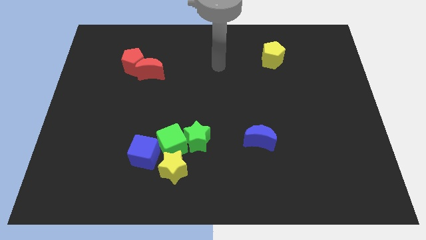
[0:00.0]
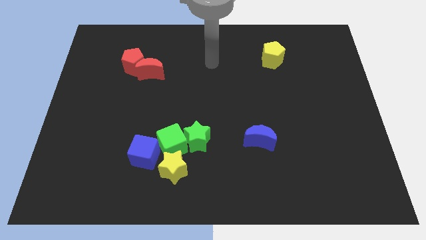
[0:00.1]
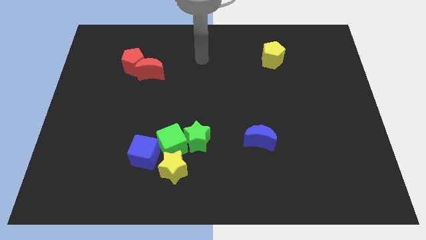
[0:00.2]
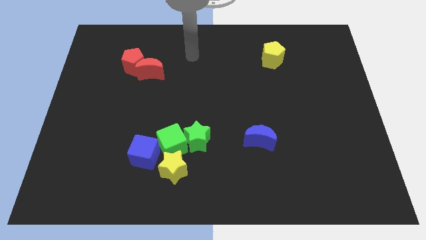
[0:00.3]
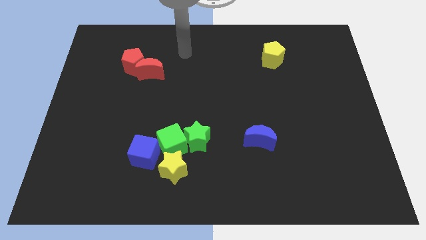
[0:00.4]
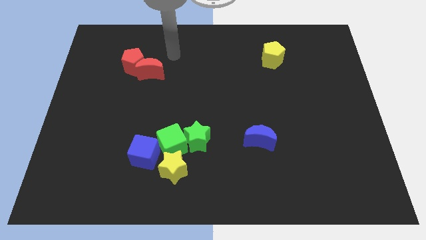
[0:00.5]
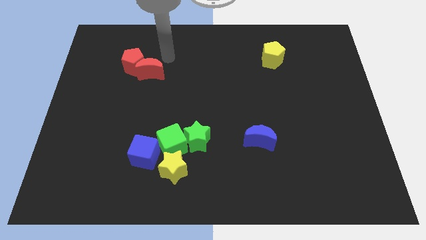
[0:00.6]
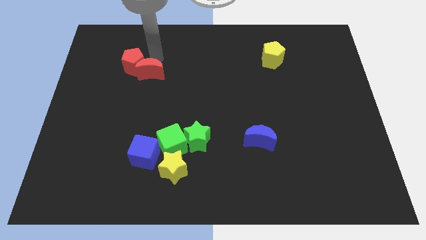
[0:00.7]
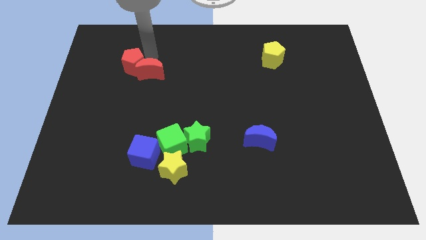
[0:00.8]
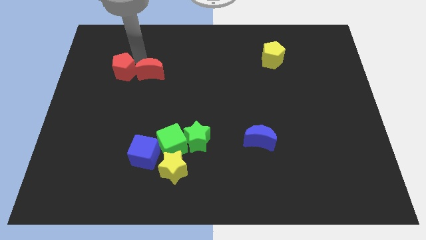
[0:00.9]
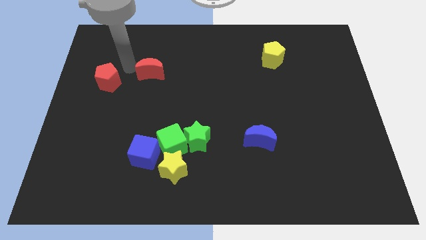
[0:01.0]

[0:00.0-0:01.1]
separate the red moon from the red pentagon

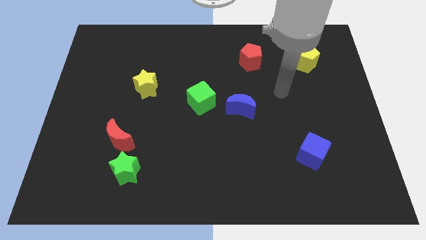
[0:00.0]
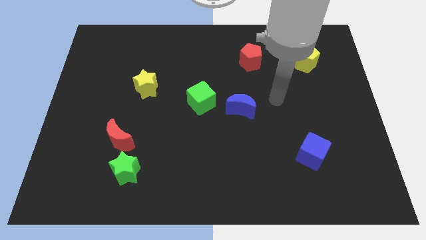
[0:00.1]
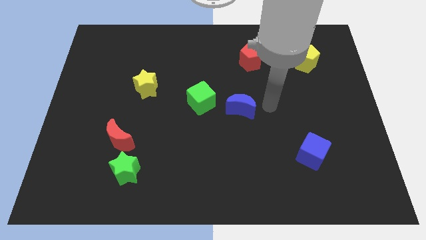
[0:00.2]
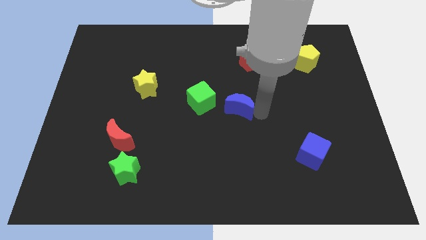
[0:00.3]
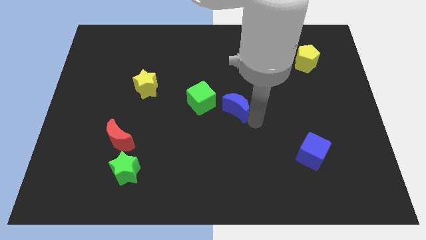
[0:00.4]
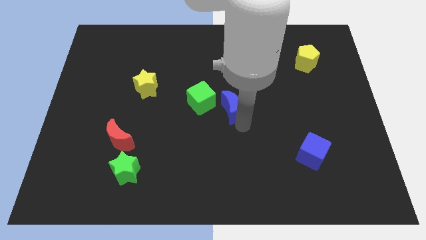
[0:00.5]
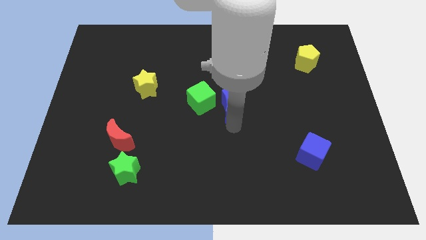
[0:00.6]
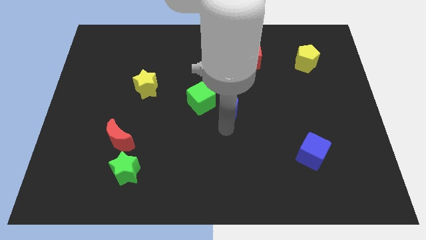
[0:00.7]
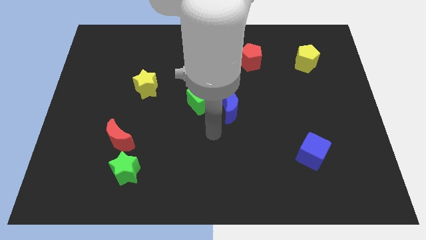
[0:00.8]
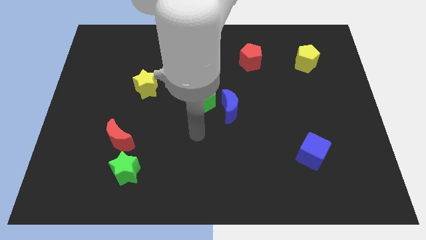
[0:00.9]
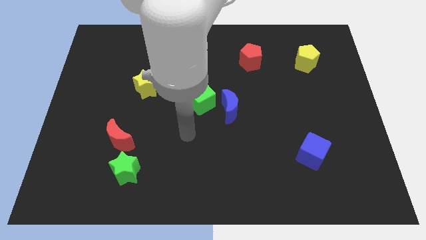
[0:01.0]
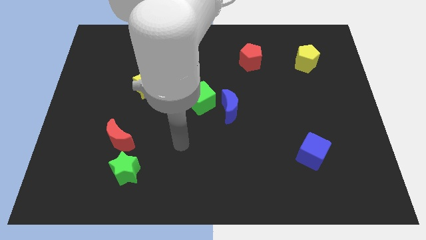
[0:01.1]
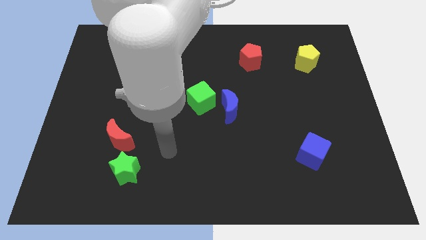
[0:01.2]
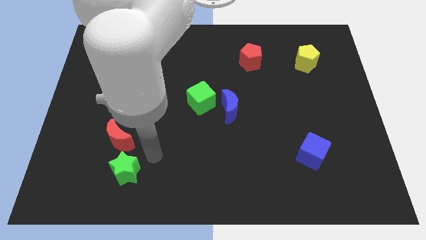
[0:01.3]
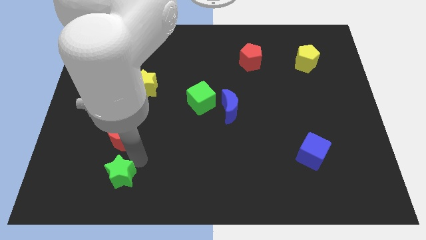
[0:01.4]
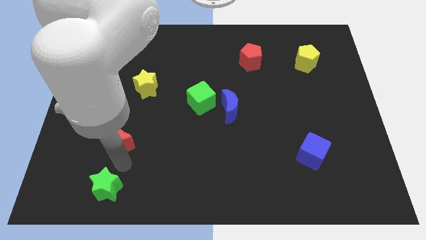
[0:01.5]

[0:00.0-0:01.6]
pull the red moon apart from the green star

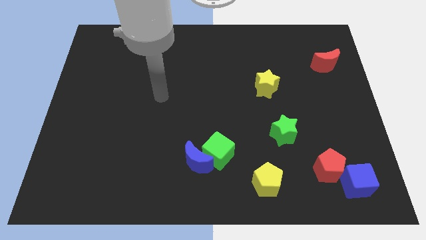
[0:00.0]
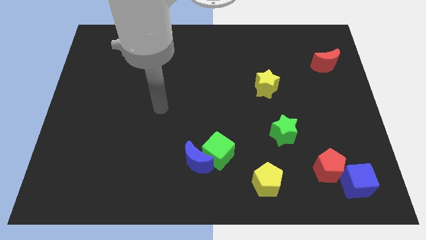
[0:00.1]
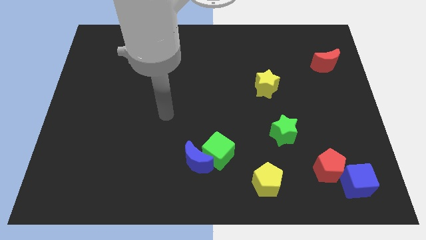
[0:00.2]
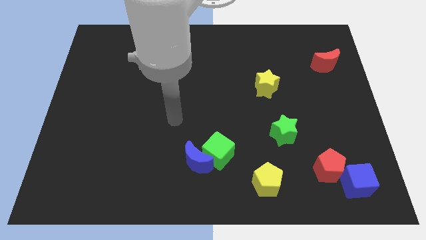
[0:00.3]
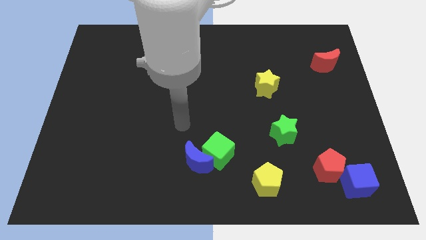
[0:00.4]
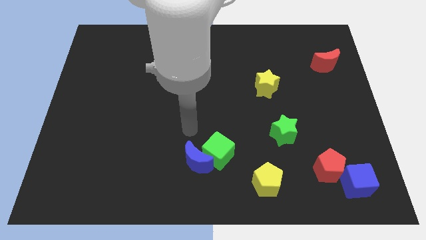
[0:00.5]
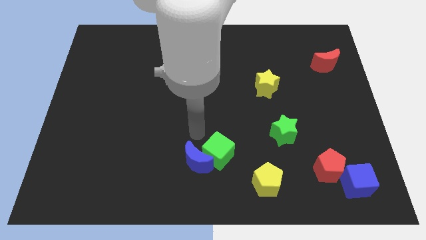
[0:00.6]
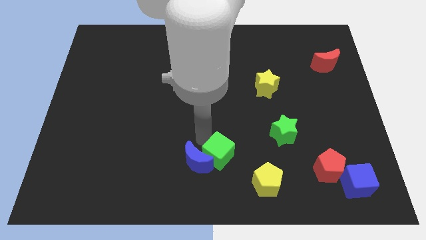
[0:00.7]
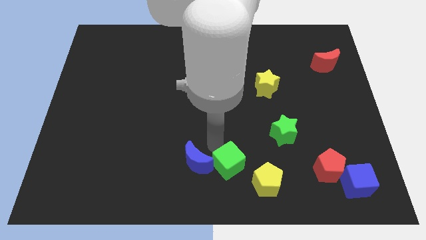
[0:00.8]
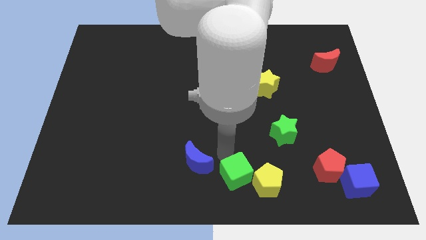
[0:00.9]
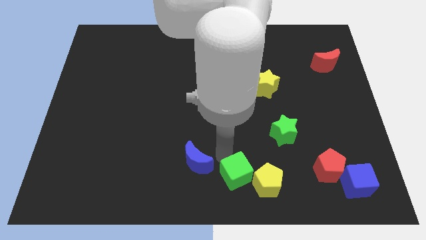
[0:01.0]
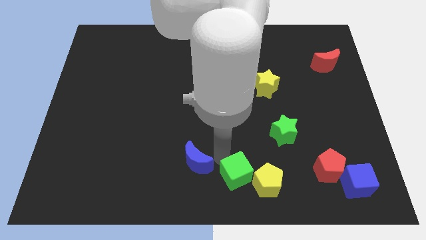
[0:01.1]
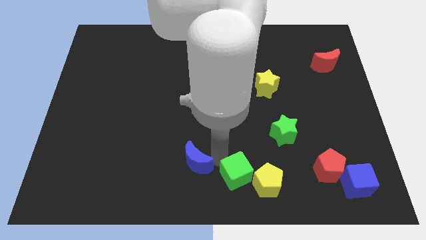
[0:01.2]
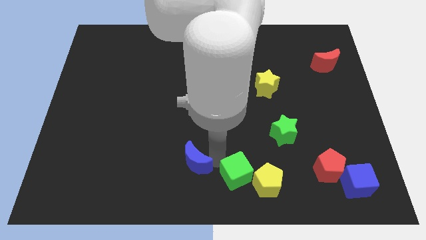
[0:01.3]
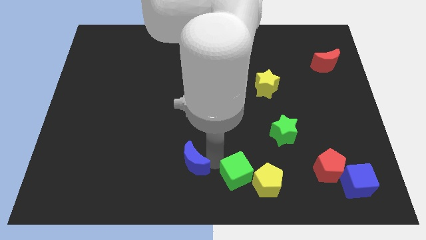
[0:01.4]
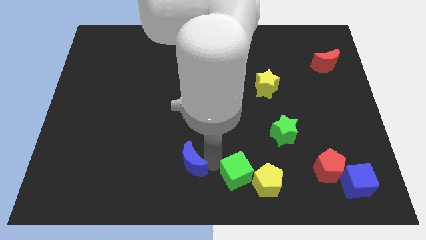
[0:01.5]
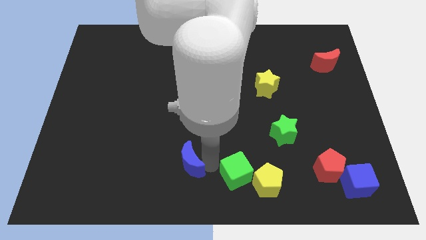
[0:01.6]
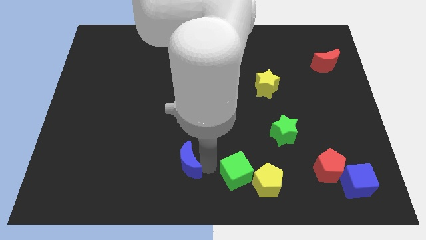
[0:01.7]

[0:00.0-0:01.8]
pull the blue moon apart from the green cube

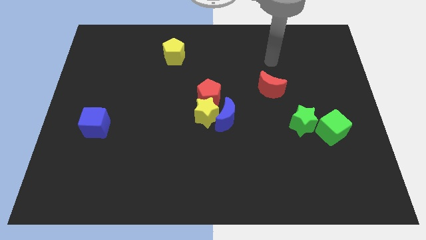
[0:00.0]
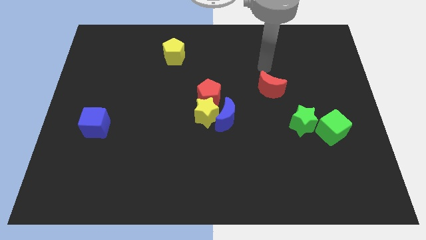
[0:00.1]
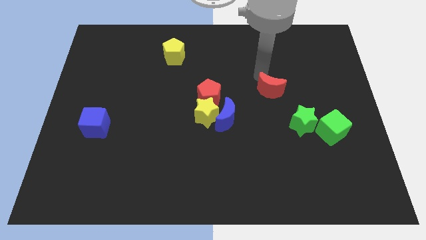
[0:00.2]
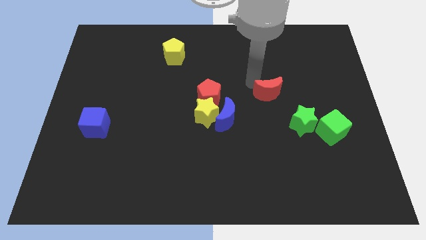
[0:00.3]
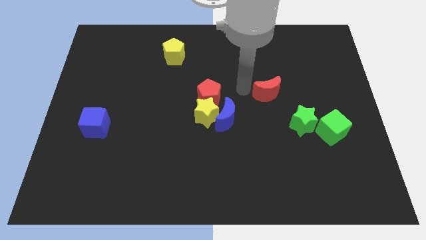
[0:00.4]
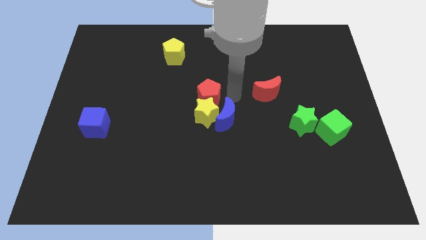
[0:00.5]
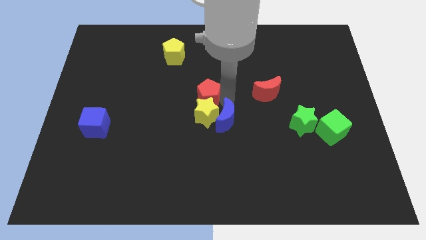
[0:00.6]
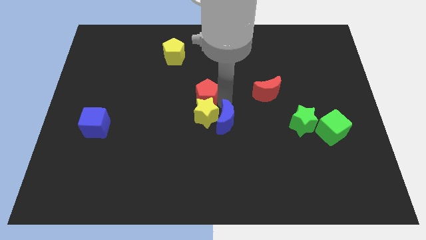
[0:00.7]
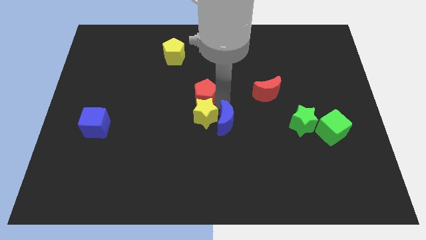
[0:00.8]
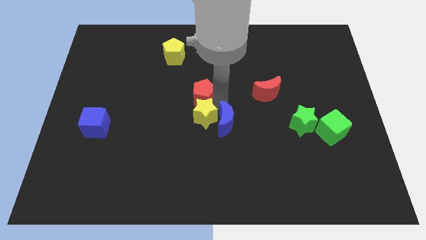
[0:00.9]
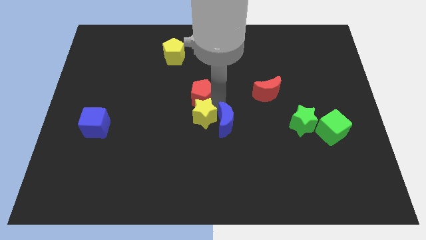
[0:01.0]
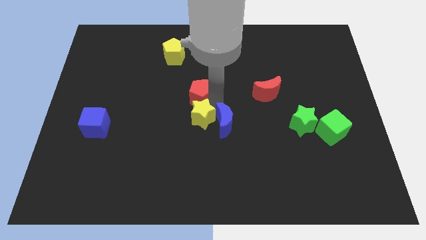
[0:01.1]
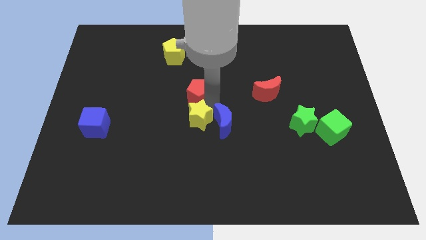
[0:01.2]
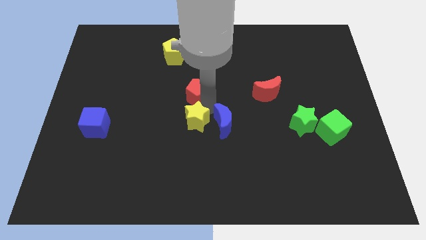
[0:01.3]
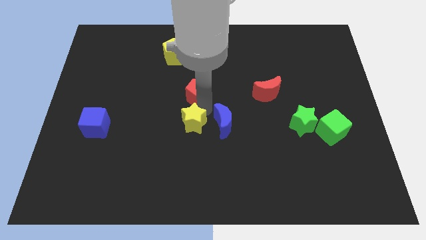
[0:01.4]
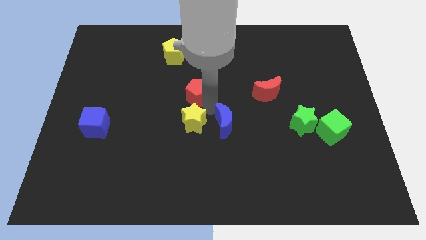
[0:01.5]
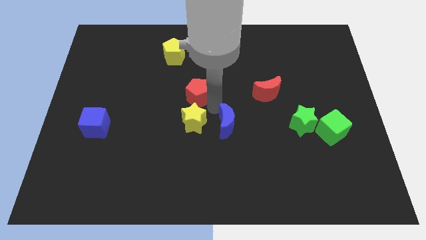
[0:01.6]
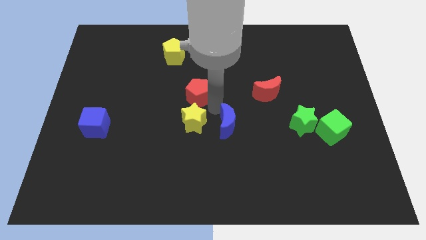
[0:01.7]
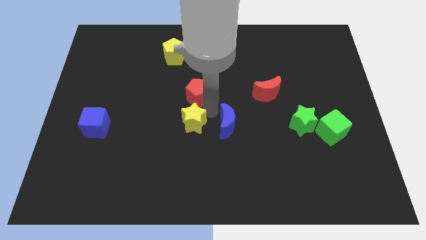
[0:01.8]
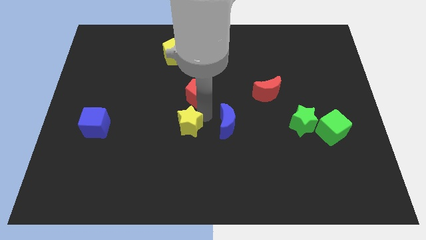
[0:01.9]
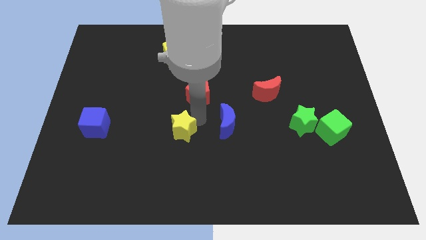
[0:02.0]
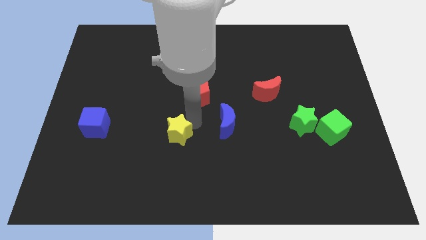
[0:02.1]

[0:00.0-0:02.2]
move the yellow star away from the blue moon and red pentagon

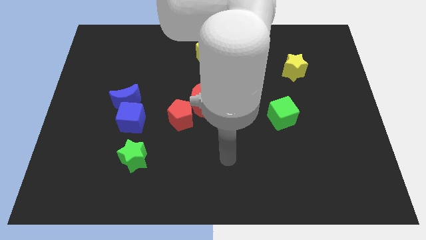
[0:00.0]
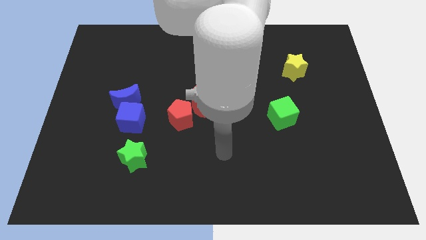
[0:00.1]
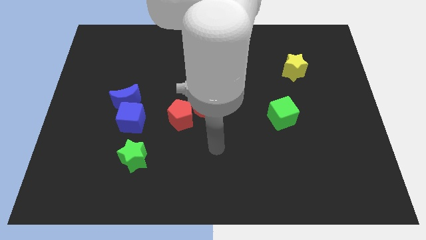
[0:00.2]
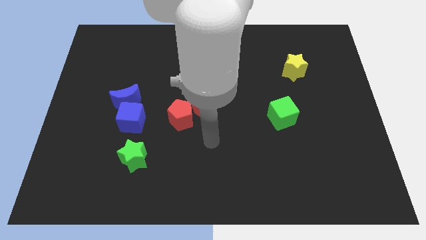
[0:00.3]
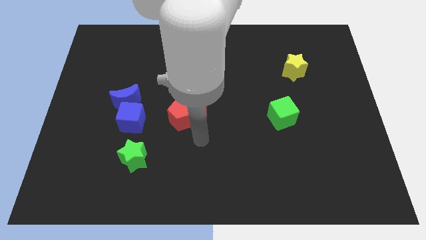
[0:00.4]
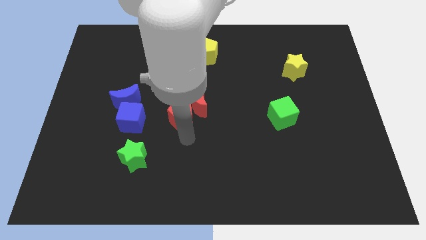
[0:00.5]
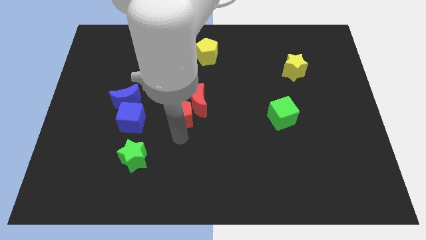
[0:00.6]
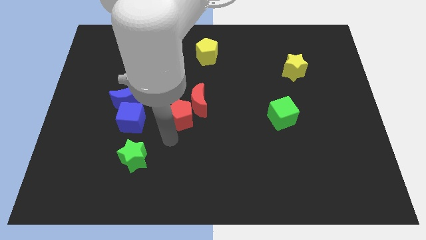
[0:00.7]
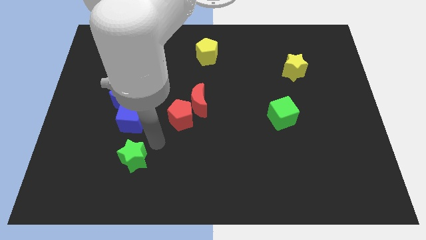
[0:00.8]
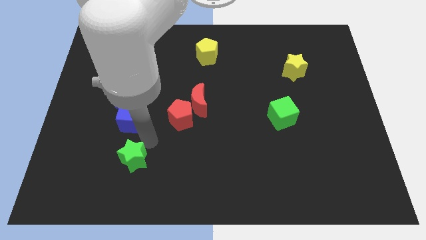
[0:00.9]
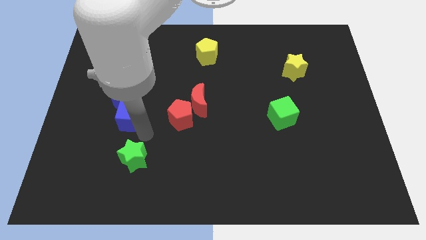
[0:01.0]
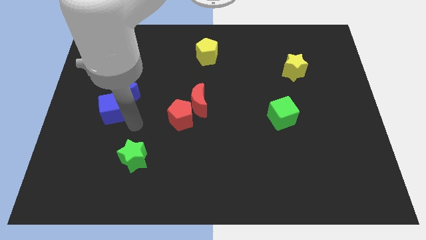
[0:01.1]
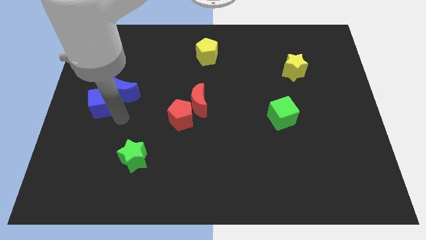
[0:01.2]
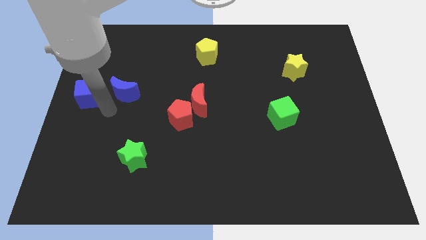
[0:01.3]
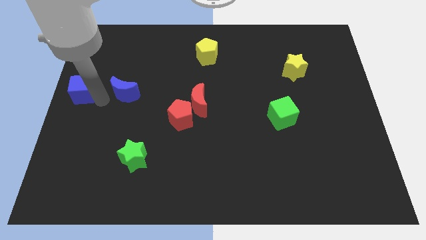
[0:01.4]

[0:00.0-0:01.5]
pull the blue moon apart from the blue cube

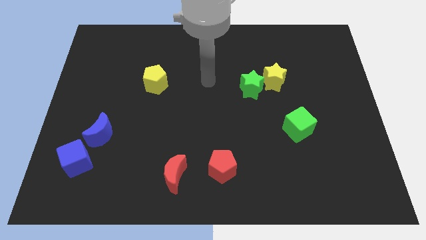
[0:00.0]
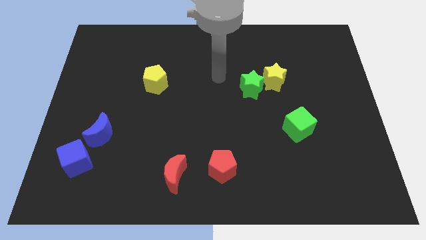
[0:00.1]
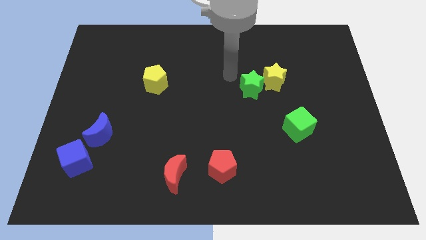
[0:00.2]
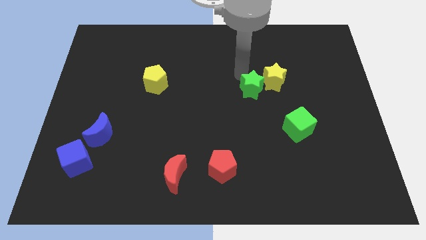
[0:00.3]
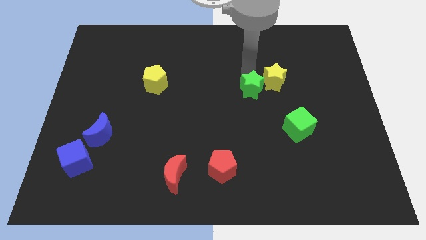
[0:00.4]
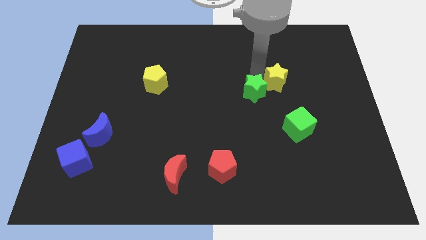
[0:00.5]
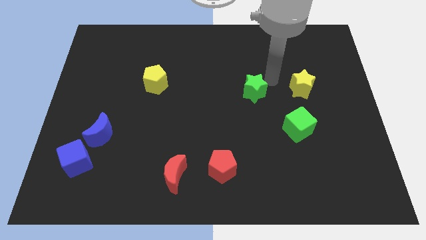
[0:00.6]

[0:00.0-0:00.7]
pull the green star apart from the yellow star

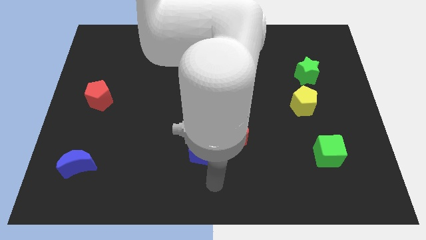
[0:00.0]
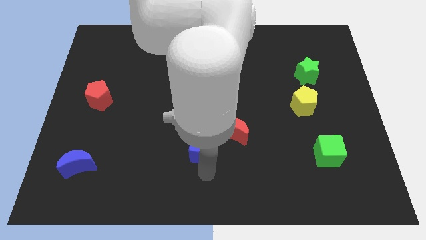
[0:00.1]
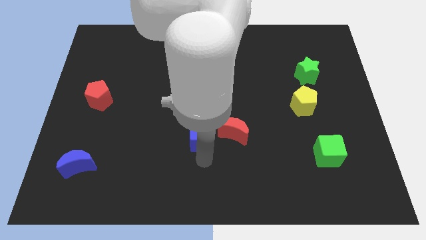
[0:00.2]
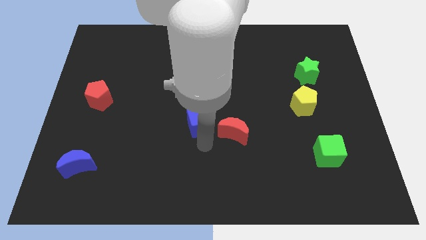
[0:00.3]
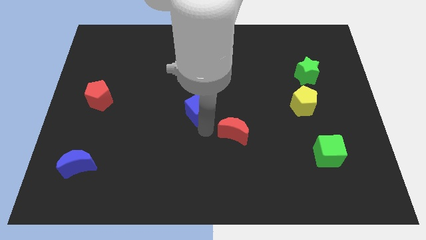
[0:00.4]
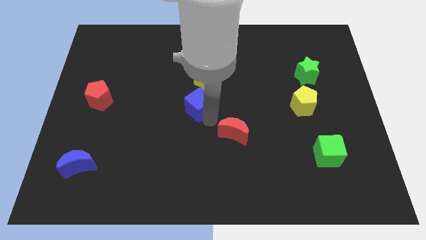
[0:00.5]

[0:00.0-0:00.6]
move the red moon away from the blue cube
